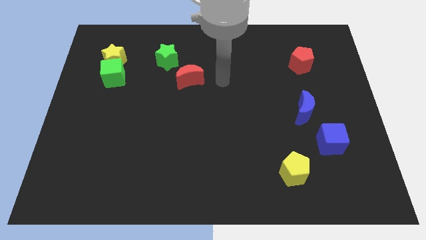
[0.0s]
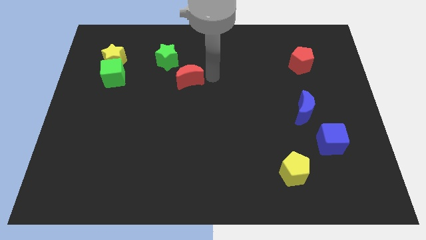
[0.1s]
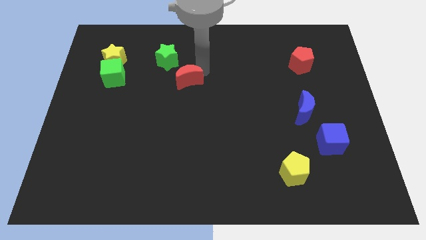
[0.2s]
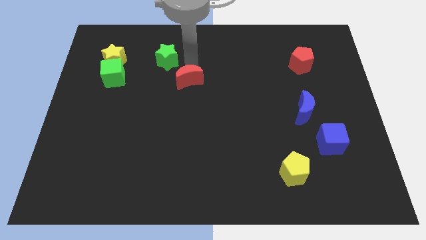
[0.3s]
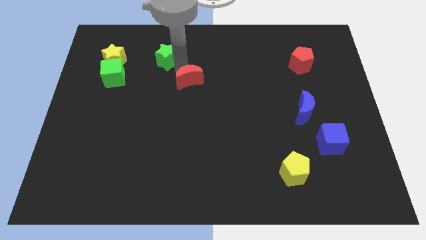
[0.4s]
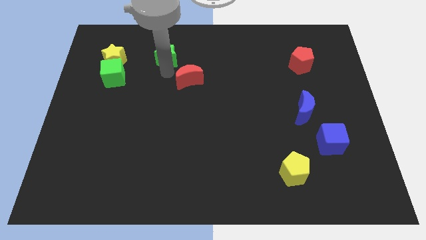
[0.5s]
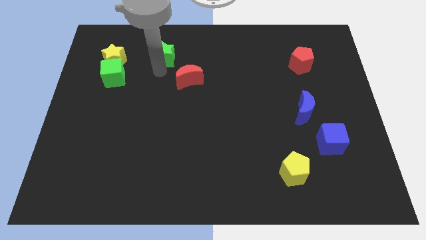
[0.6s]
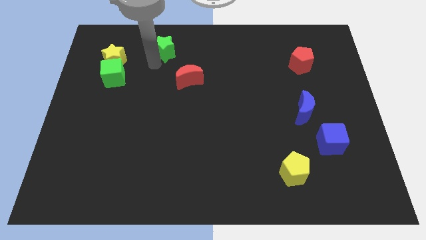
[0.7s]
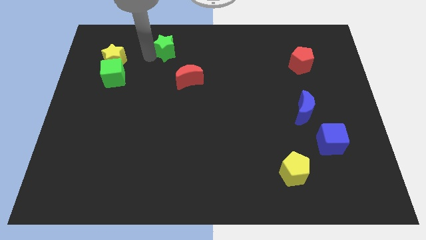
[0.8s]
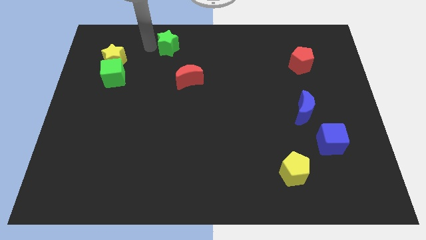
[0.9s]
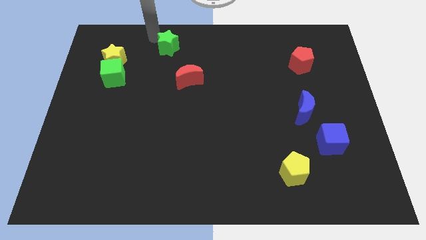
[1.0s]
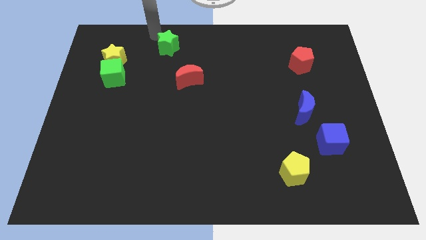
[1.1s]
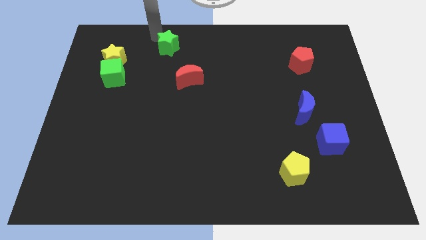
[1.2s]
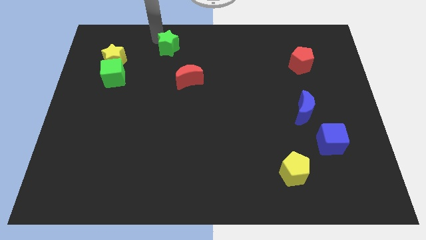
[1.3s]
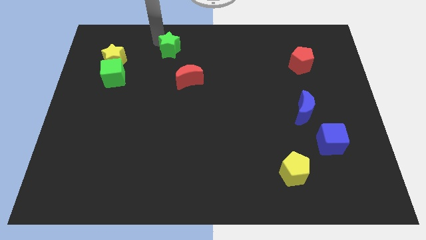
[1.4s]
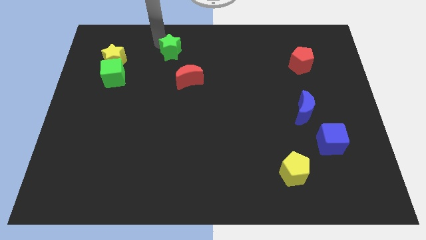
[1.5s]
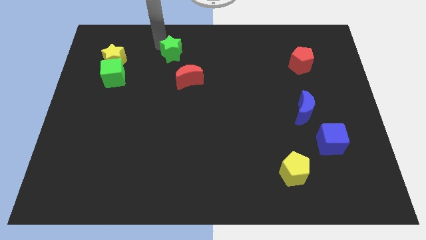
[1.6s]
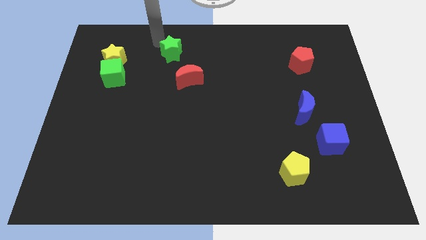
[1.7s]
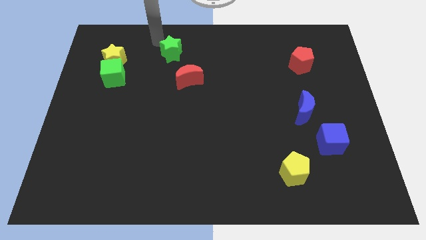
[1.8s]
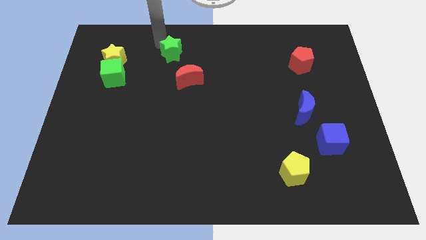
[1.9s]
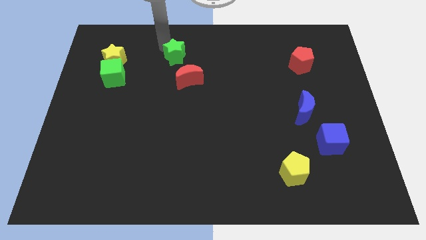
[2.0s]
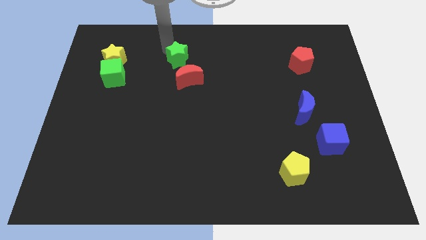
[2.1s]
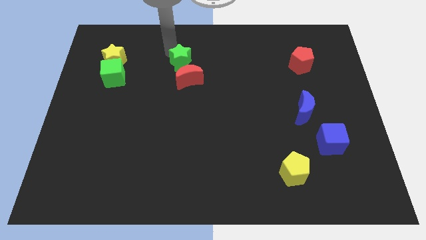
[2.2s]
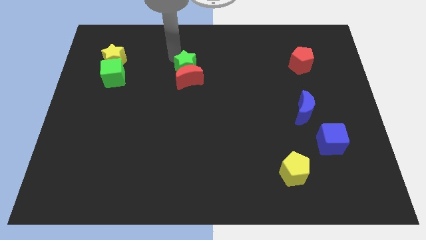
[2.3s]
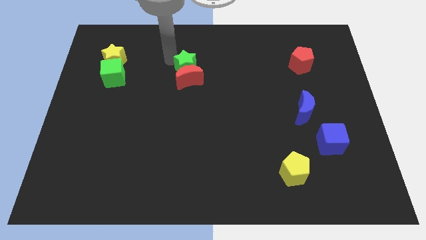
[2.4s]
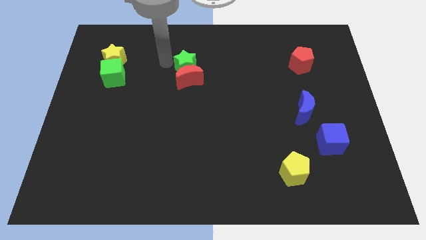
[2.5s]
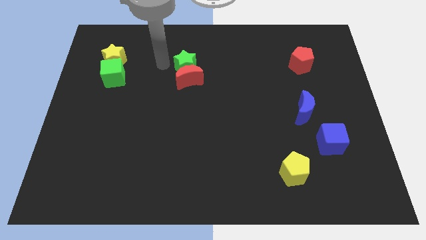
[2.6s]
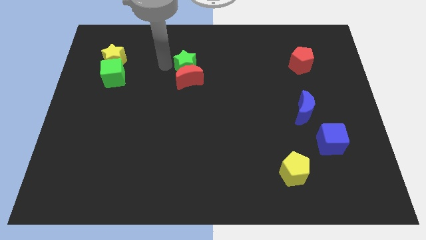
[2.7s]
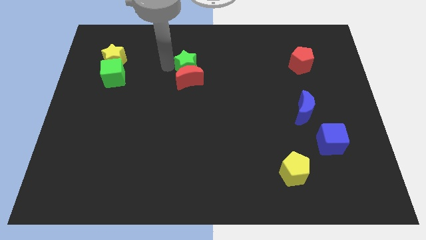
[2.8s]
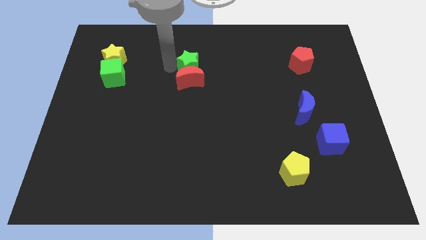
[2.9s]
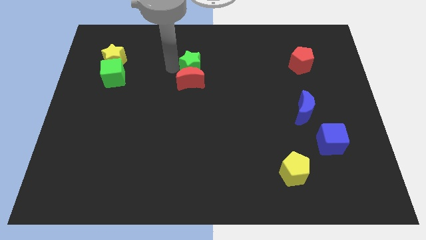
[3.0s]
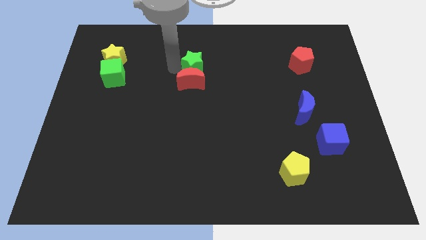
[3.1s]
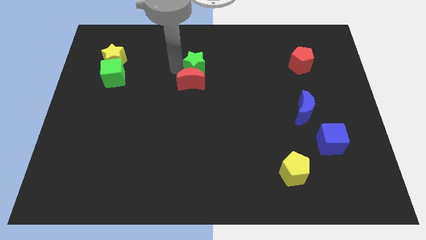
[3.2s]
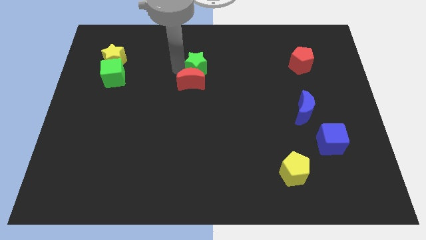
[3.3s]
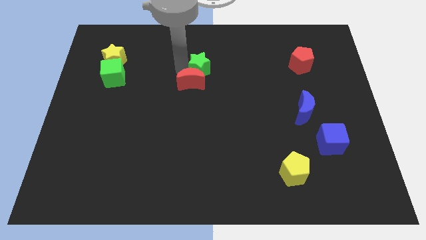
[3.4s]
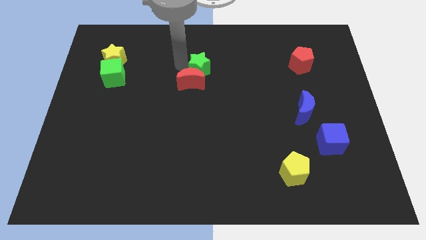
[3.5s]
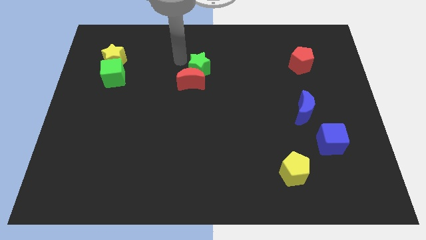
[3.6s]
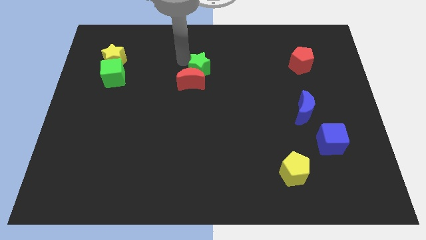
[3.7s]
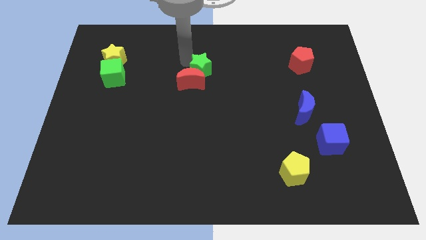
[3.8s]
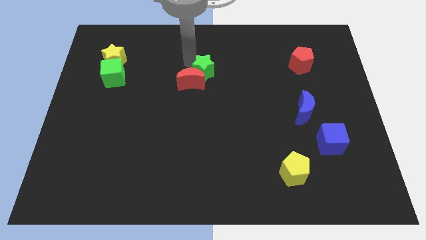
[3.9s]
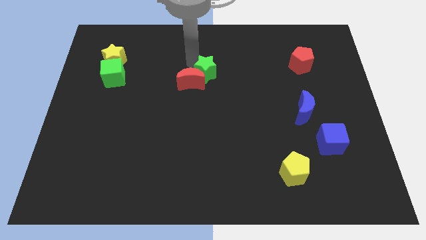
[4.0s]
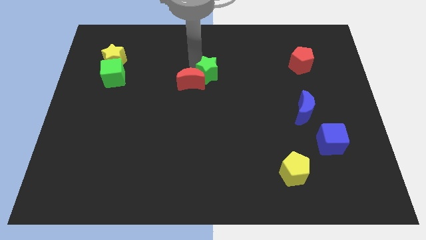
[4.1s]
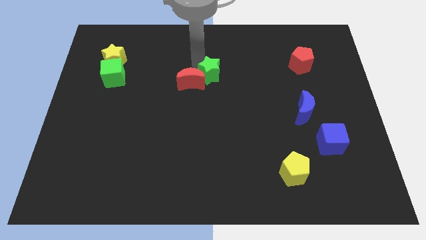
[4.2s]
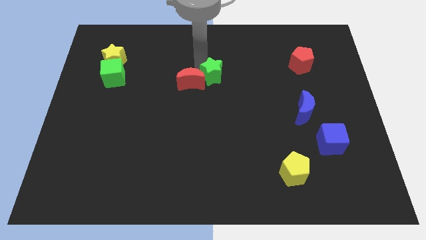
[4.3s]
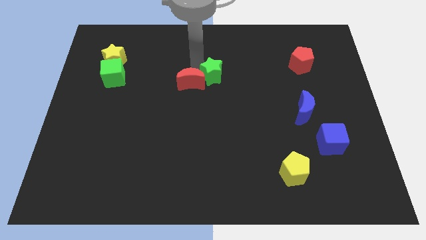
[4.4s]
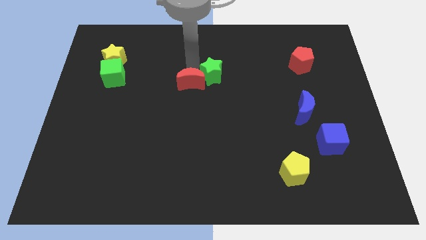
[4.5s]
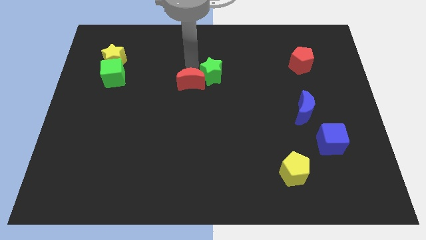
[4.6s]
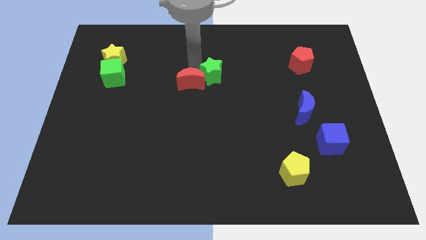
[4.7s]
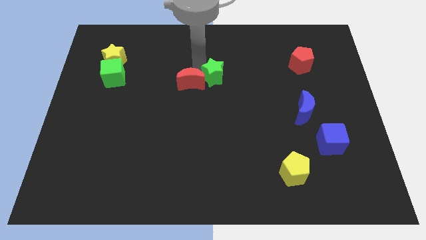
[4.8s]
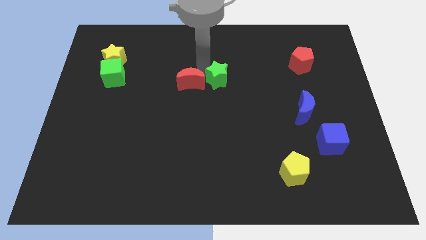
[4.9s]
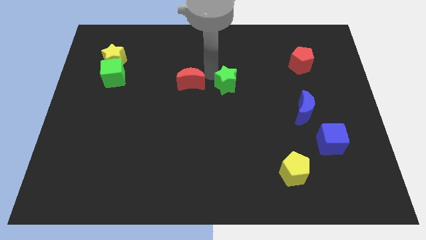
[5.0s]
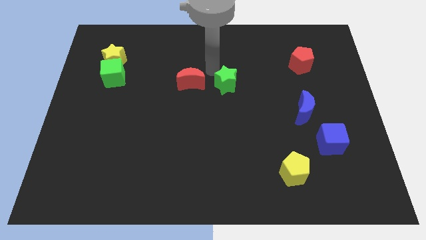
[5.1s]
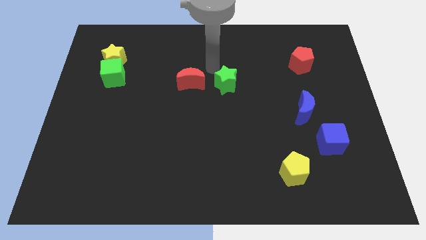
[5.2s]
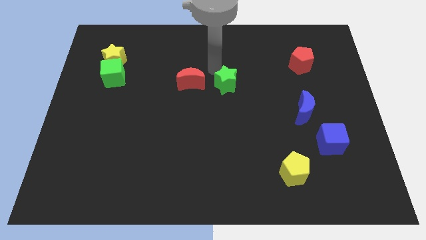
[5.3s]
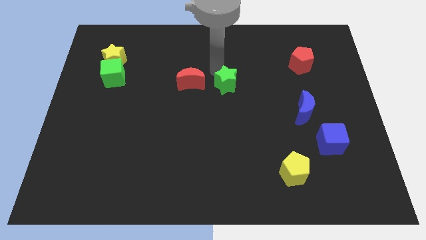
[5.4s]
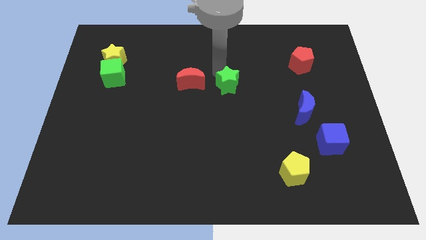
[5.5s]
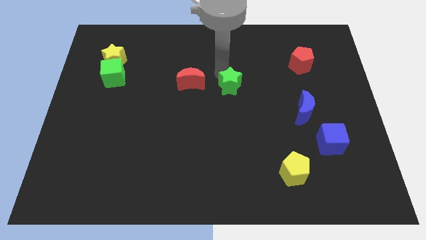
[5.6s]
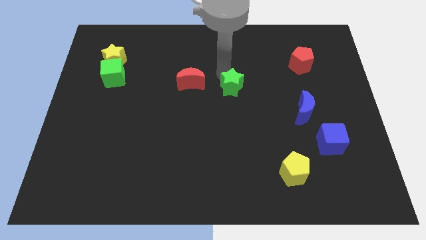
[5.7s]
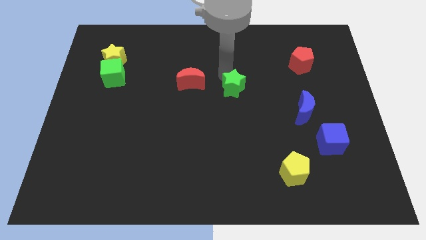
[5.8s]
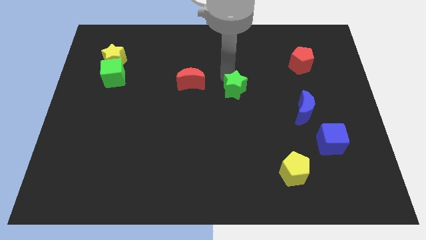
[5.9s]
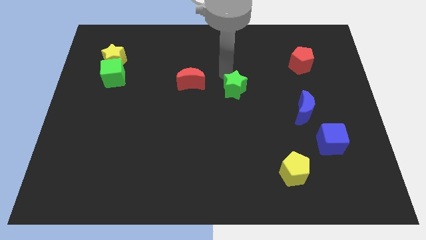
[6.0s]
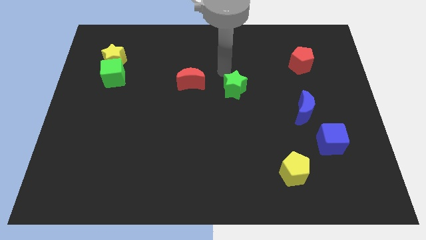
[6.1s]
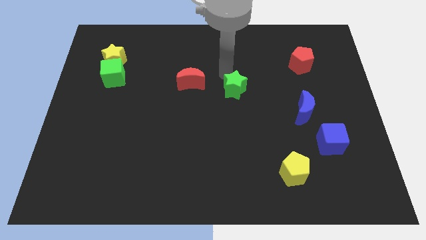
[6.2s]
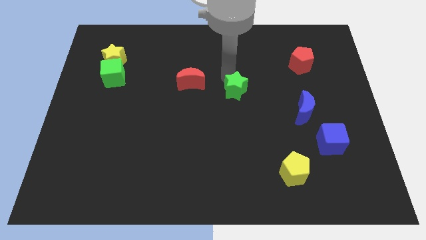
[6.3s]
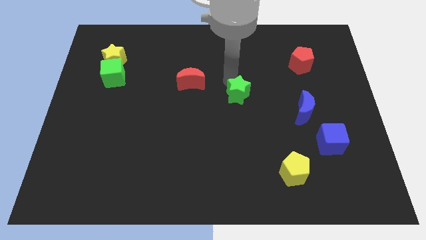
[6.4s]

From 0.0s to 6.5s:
slide the green star downwards and right diagonally

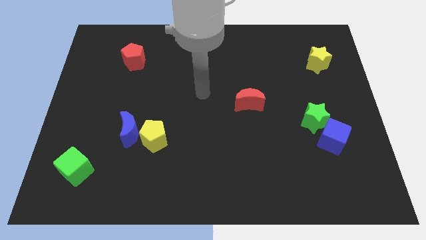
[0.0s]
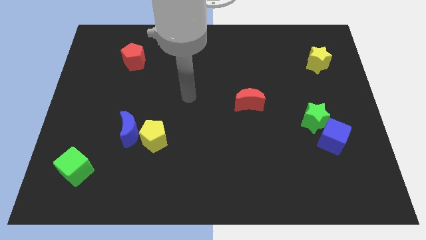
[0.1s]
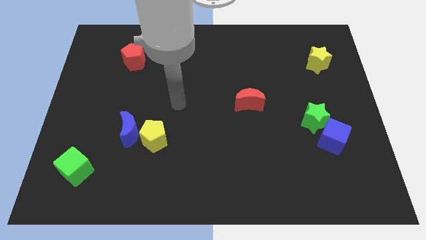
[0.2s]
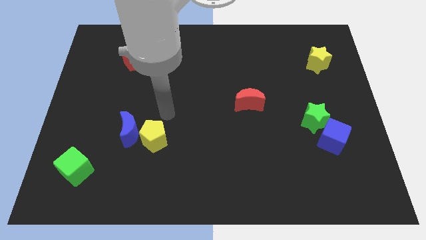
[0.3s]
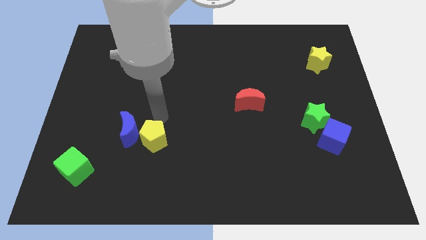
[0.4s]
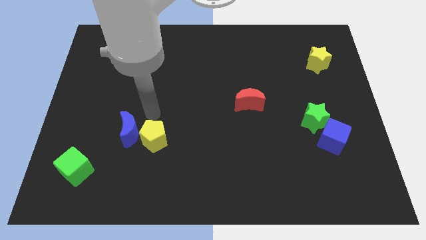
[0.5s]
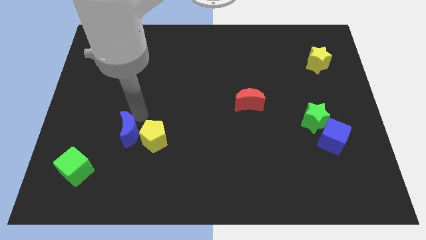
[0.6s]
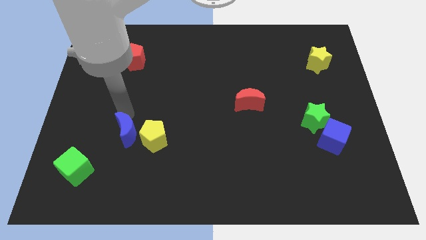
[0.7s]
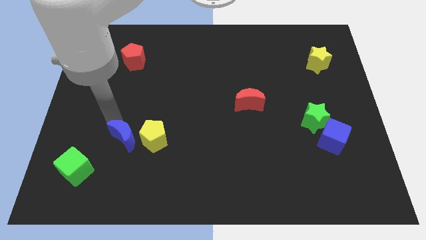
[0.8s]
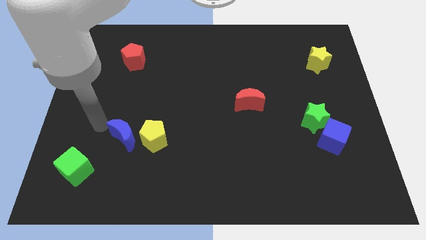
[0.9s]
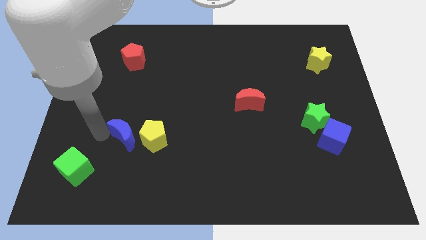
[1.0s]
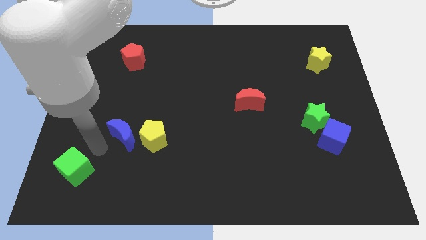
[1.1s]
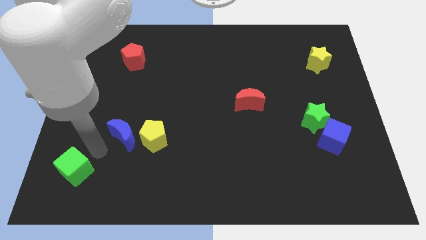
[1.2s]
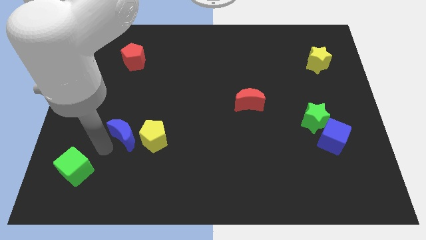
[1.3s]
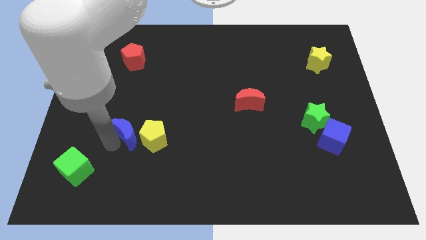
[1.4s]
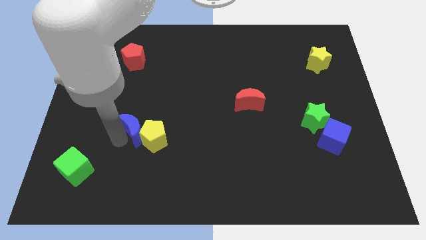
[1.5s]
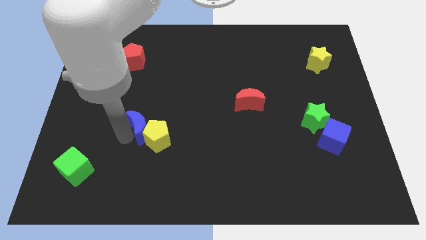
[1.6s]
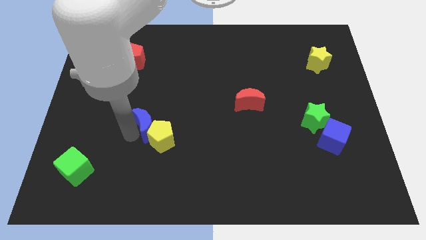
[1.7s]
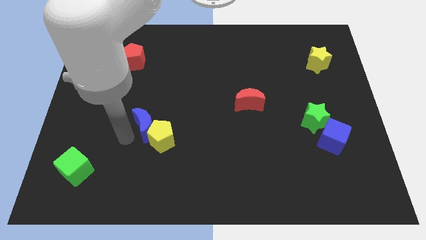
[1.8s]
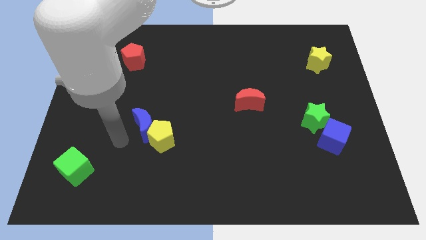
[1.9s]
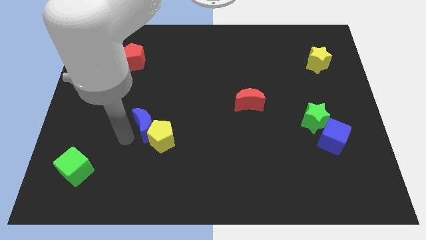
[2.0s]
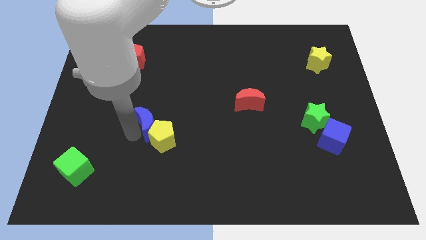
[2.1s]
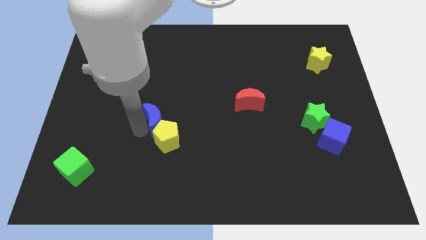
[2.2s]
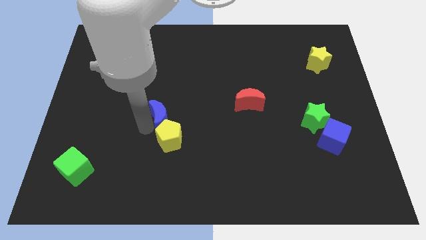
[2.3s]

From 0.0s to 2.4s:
move the blue moon up and to the right slightly
